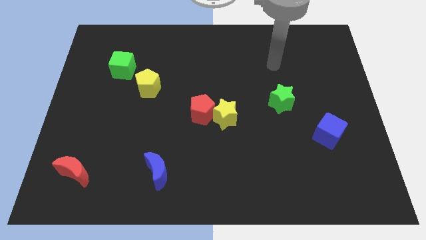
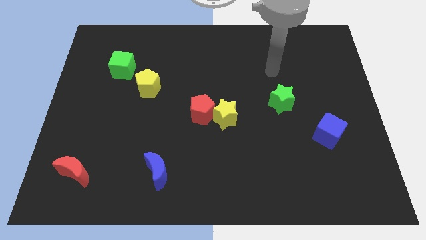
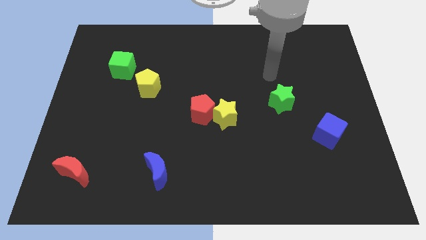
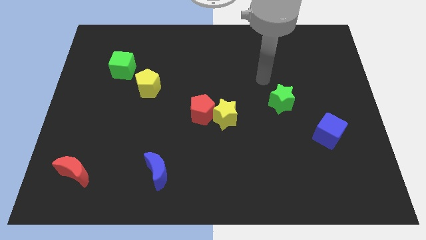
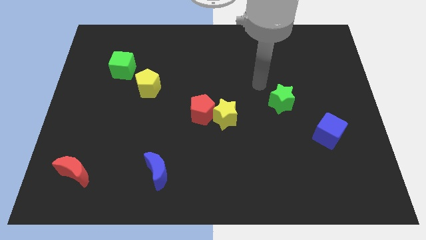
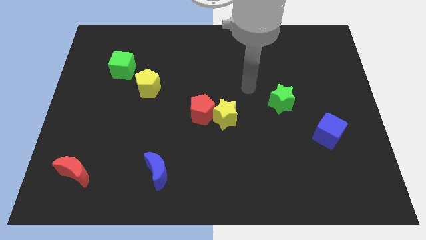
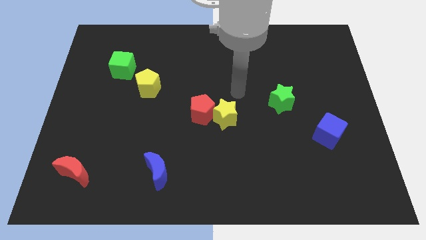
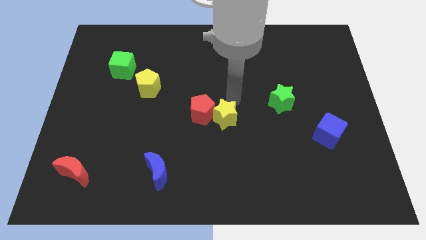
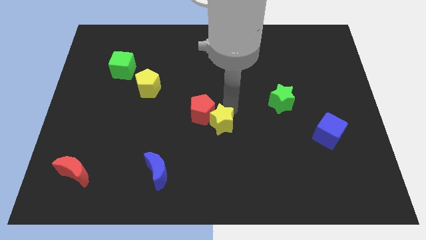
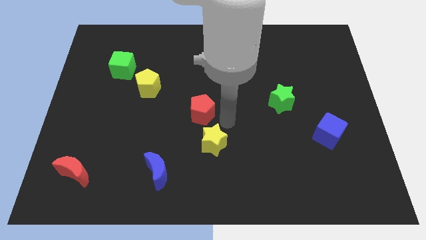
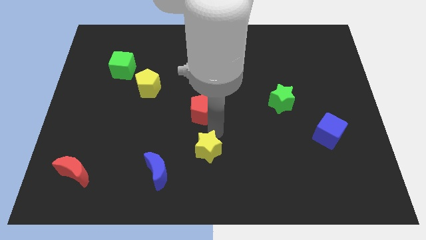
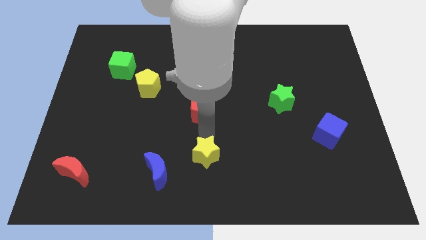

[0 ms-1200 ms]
separate the red pentagon from the yellow star

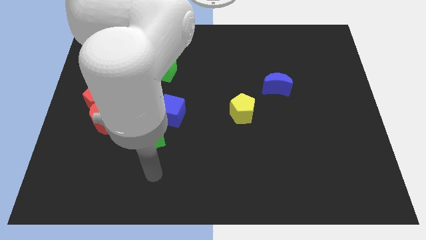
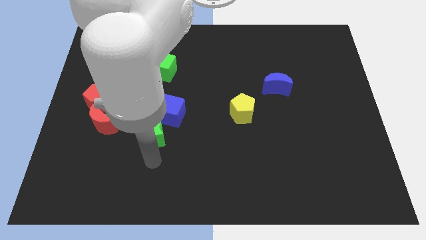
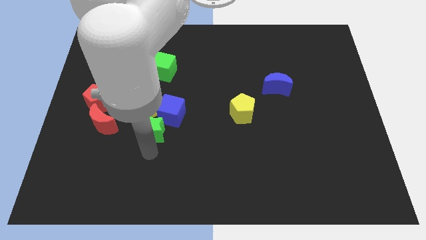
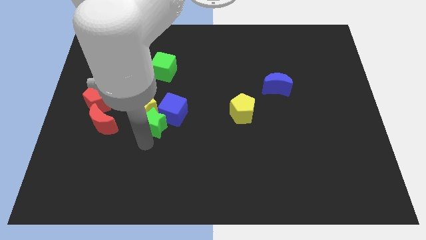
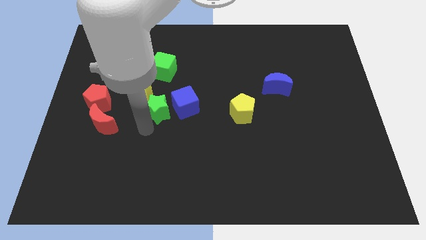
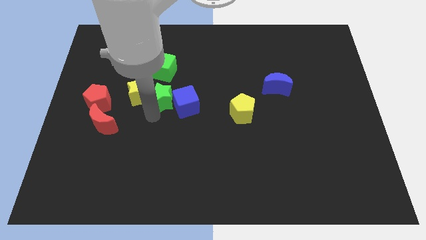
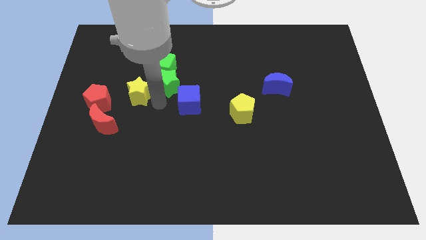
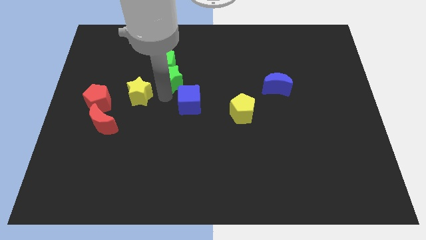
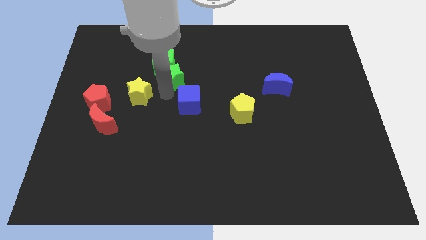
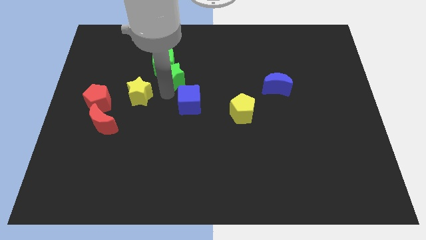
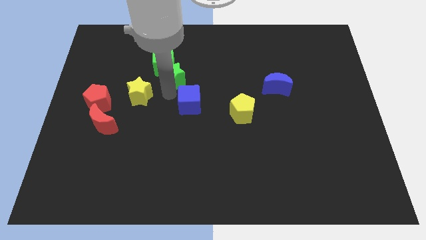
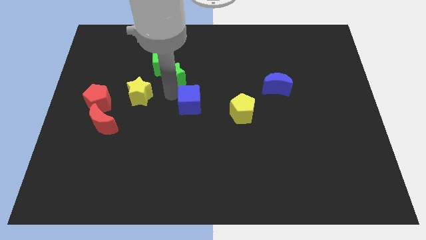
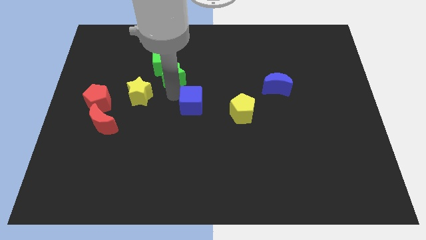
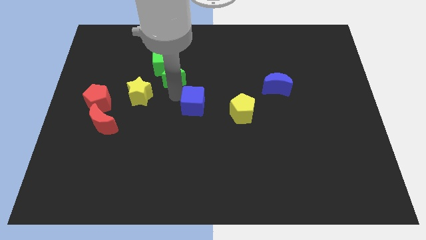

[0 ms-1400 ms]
pull the blue cube apart from the yellow star and green star

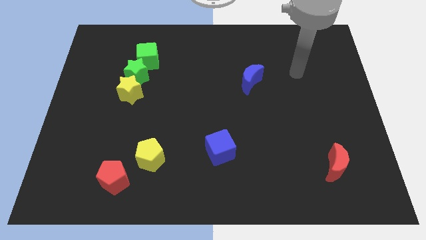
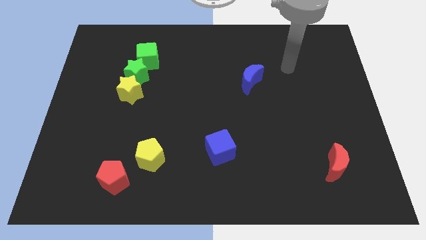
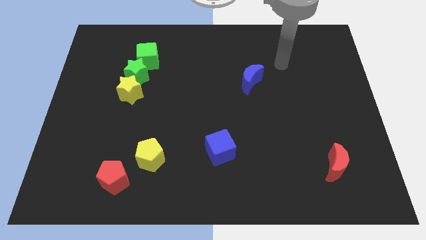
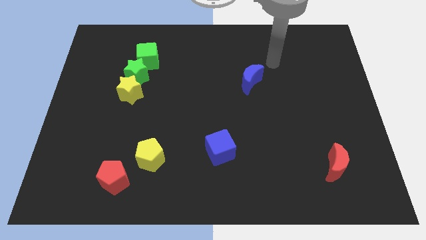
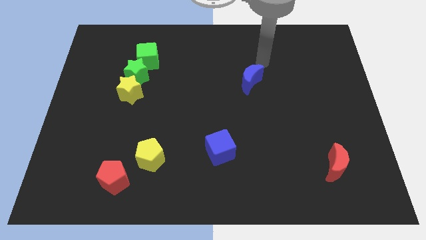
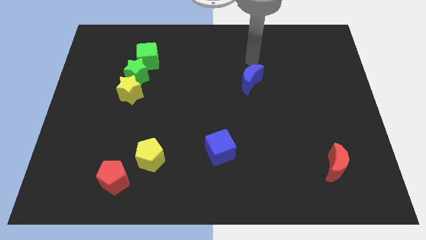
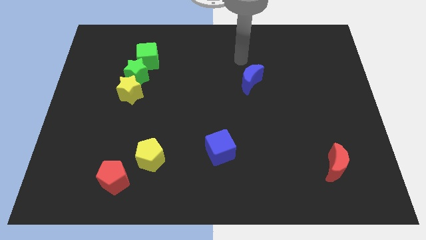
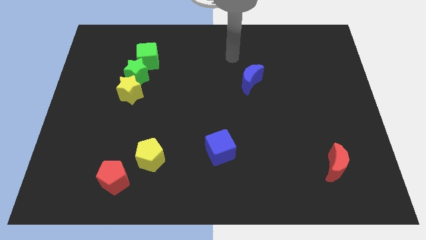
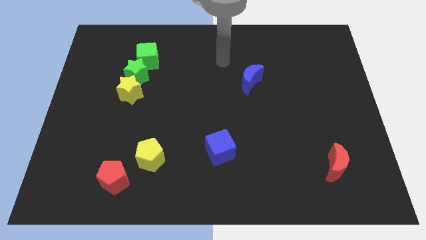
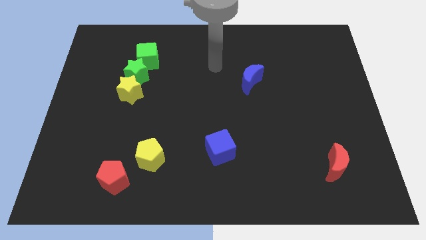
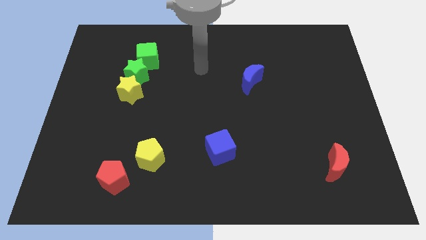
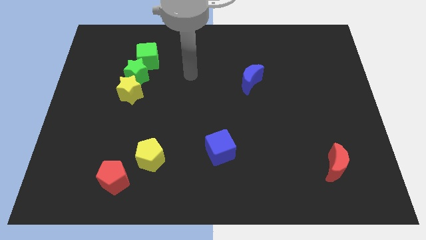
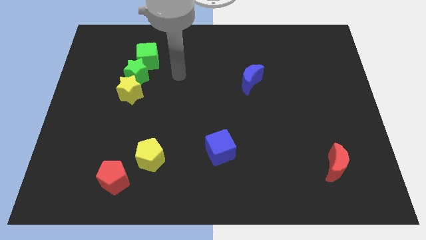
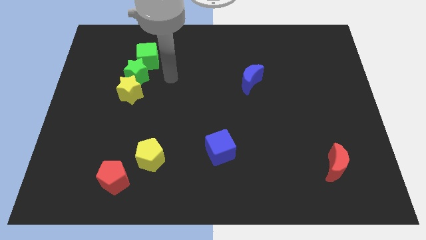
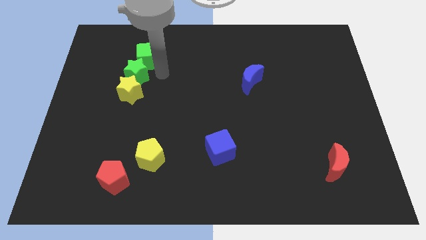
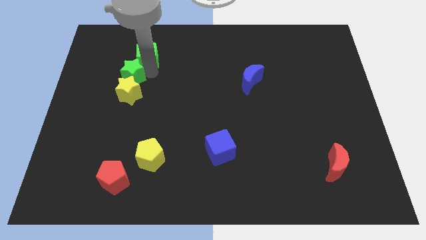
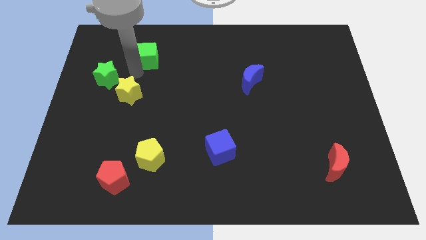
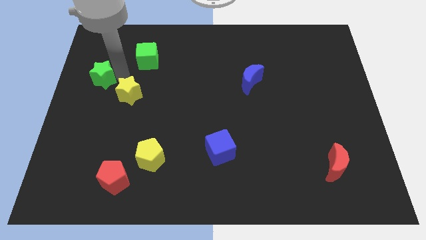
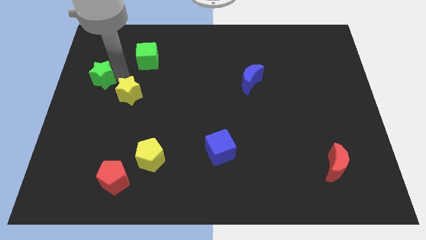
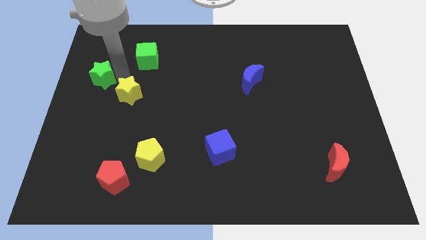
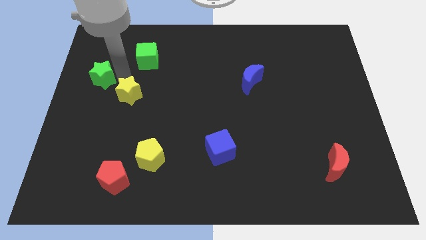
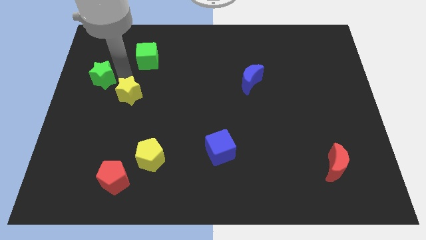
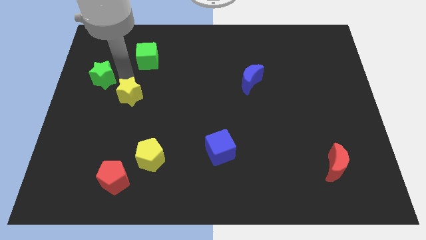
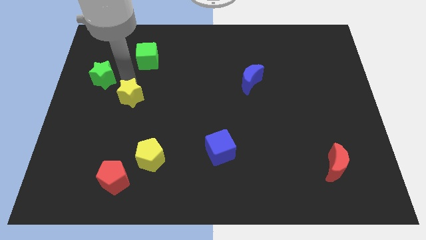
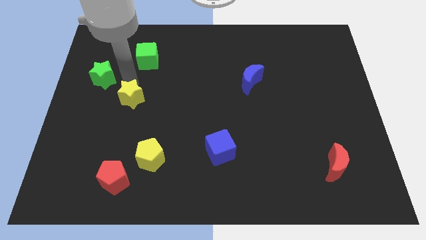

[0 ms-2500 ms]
pull the yellow star apart from the green star

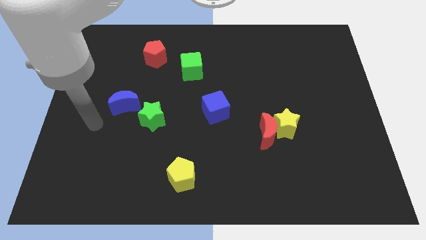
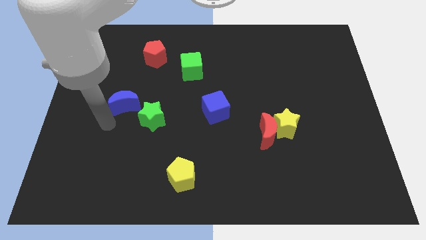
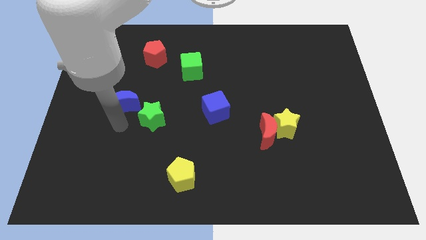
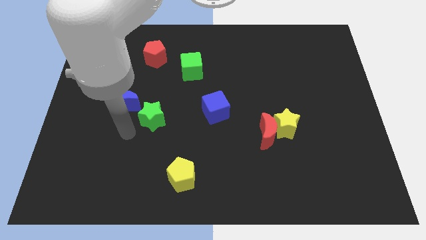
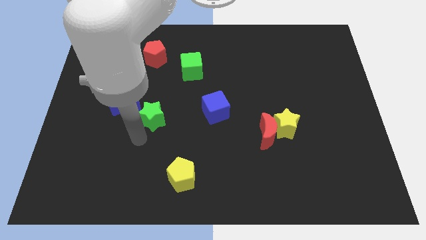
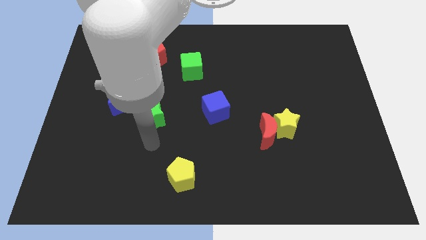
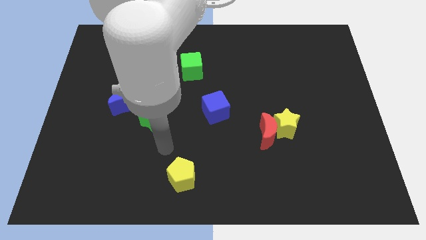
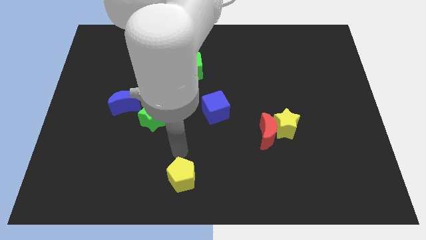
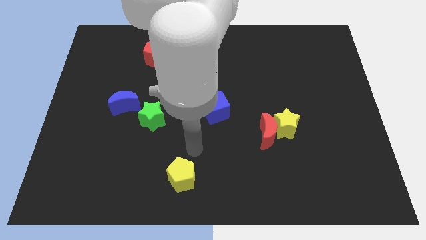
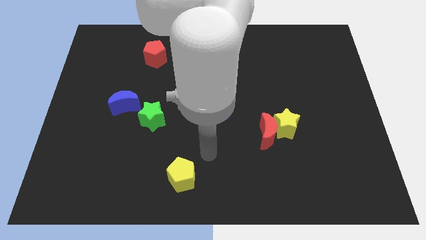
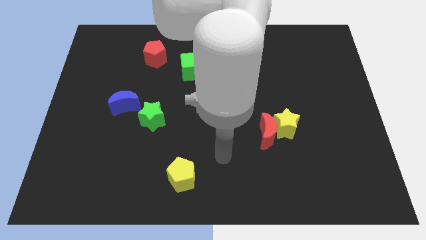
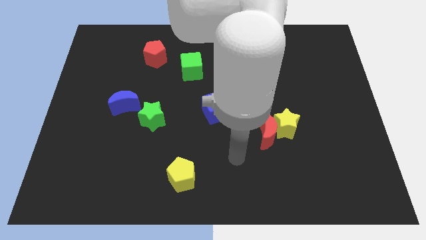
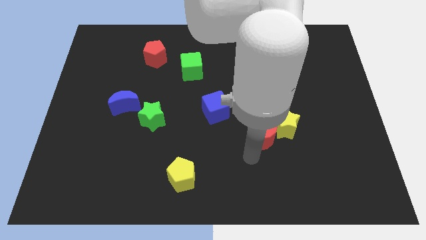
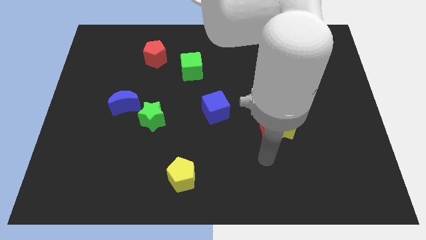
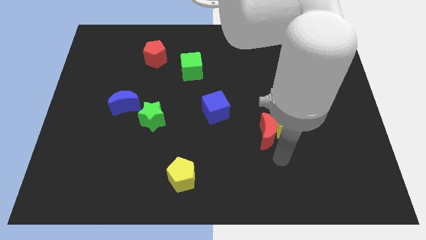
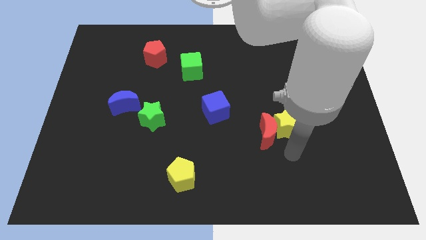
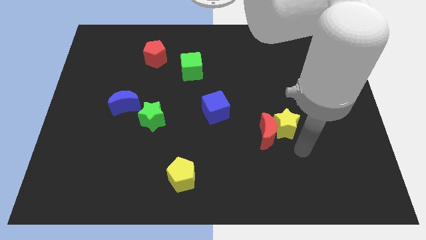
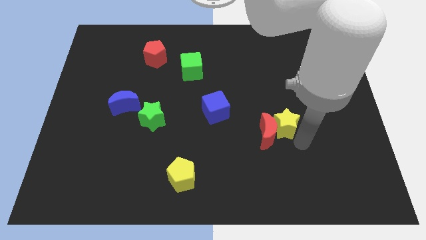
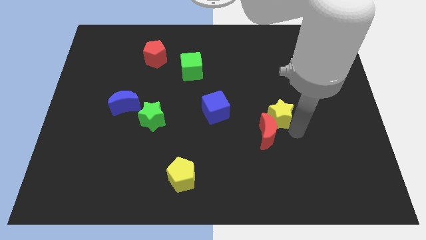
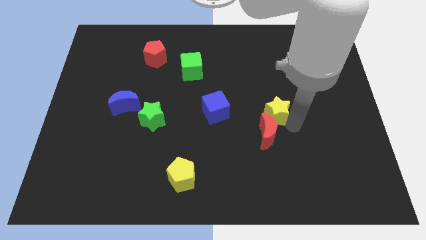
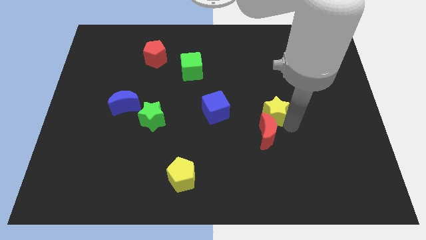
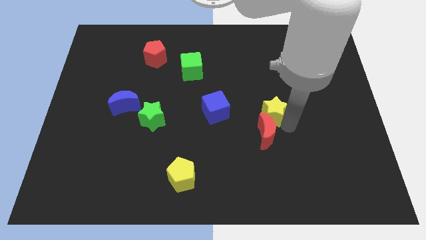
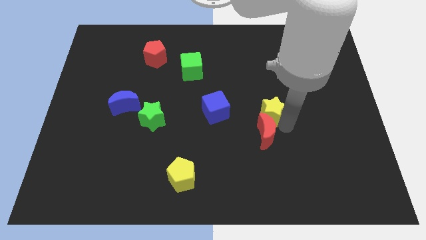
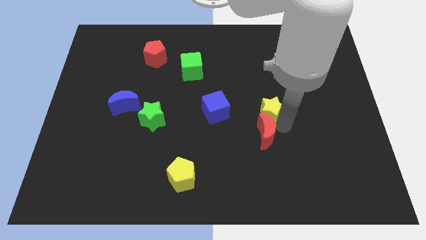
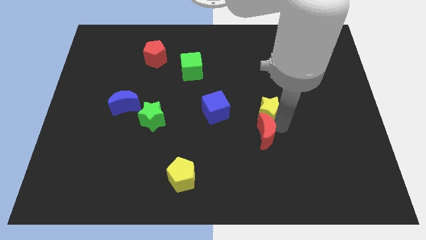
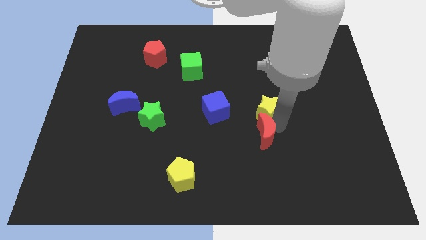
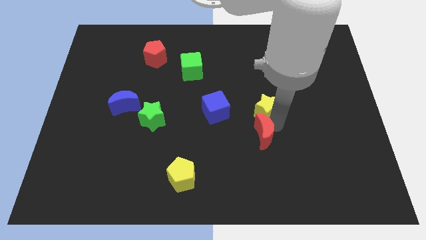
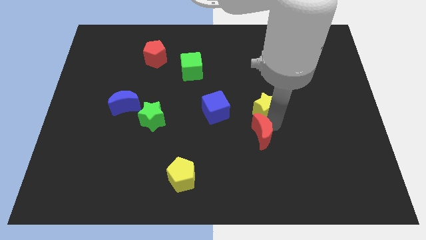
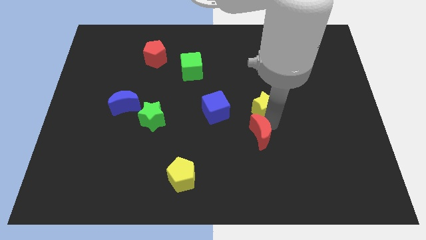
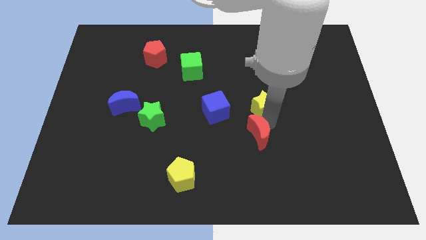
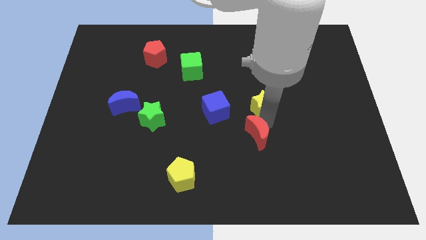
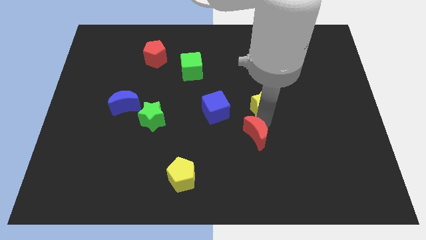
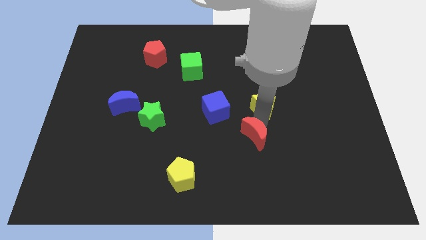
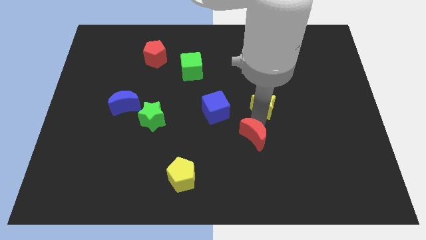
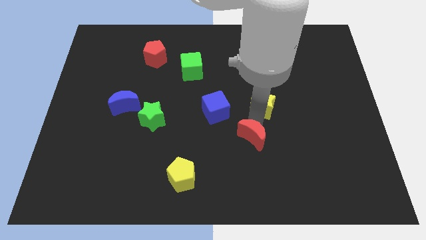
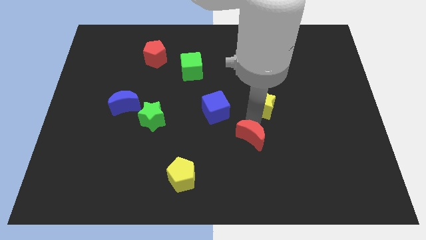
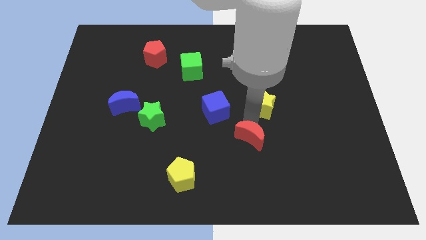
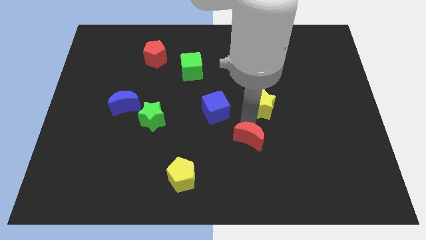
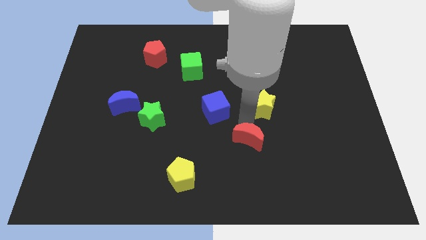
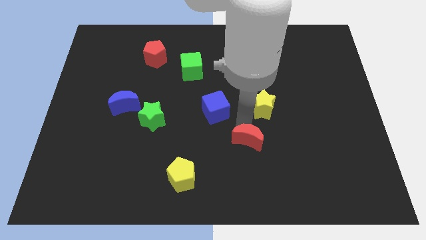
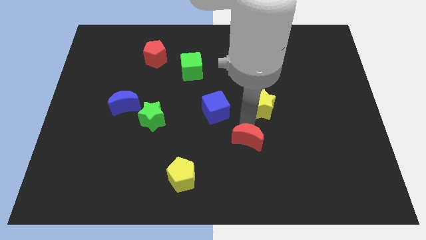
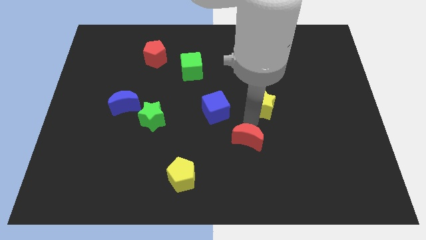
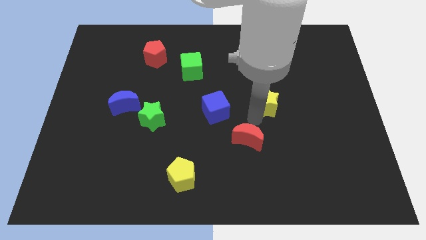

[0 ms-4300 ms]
move the red moon away from the yellow star

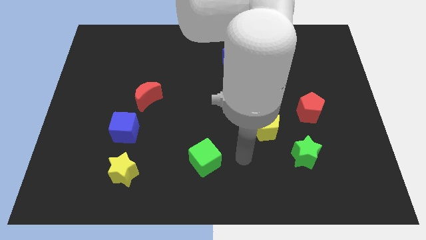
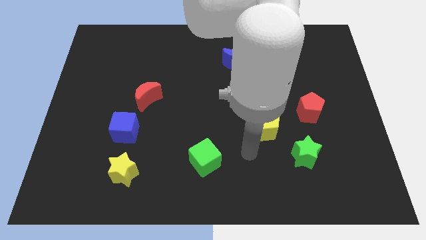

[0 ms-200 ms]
separate the green star from the yellow pentagon
